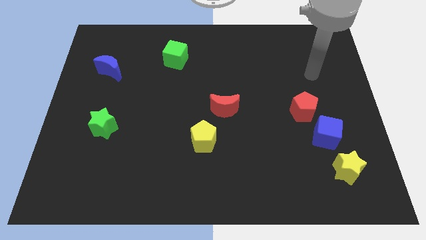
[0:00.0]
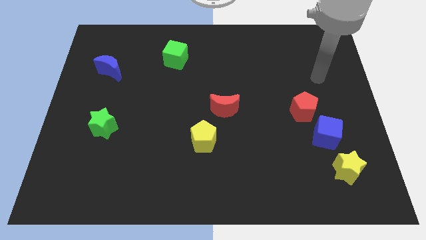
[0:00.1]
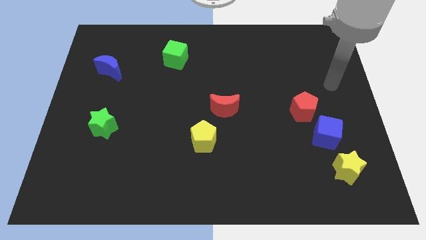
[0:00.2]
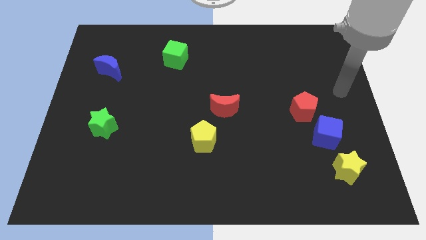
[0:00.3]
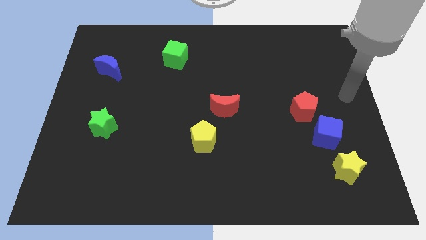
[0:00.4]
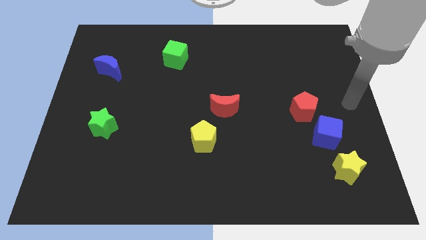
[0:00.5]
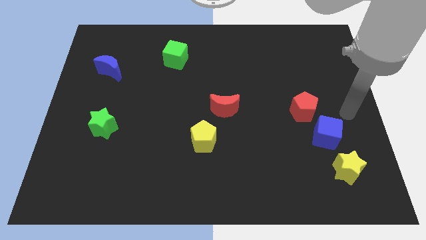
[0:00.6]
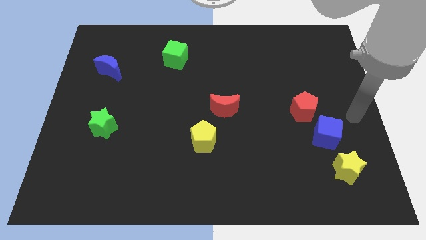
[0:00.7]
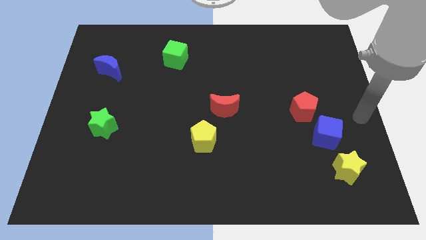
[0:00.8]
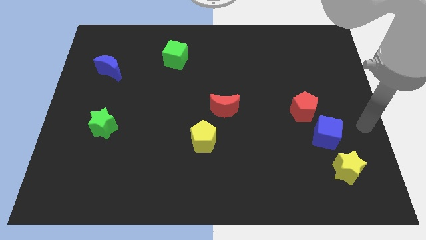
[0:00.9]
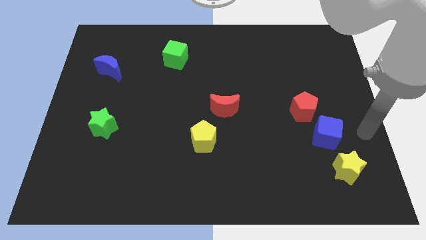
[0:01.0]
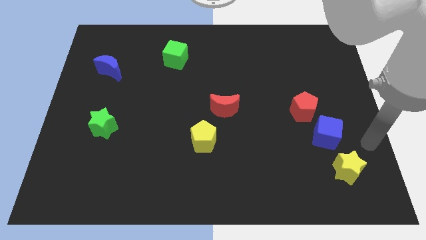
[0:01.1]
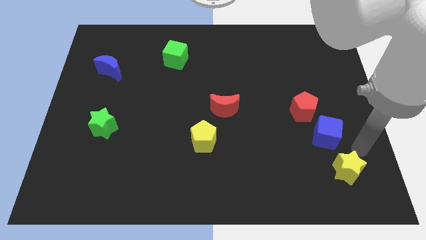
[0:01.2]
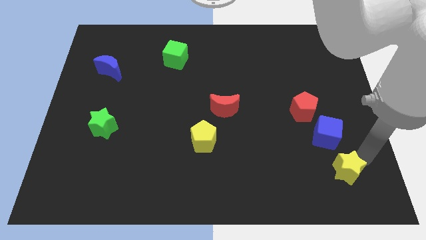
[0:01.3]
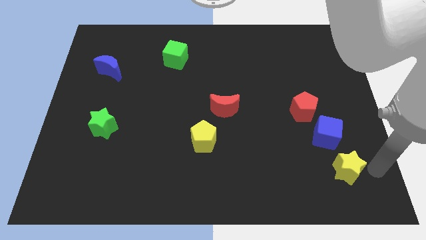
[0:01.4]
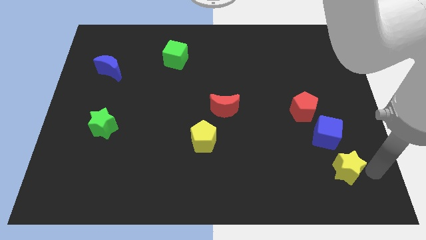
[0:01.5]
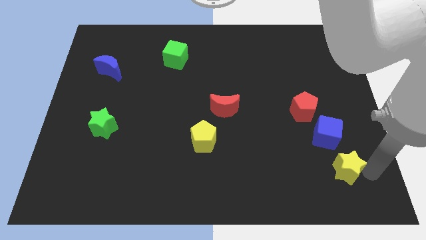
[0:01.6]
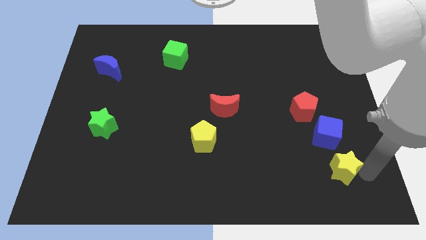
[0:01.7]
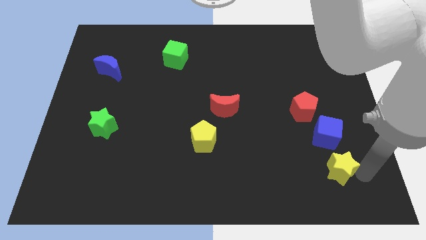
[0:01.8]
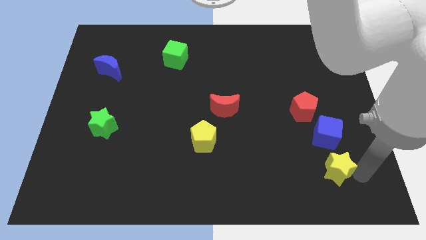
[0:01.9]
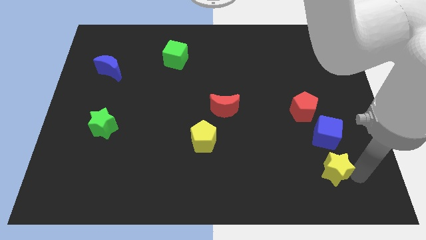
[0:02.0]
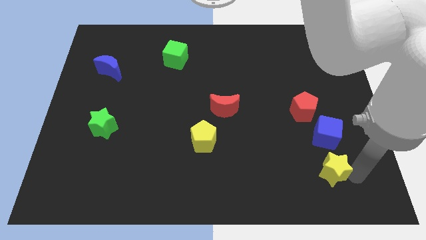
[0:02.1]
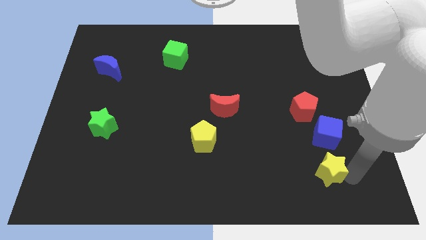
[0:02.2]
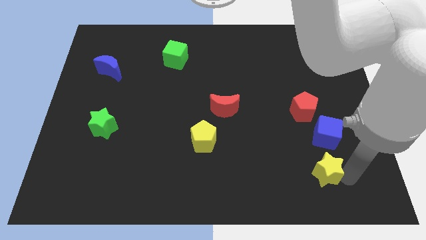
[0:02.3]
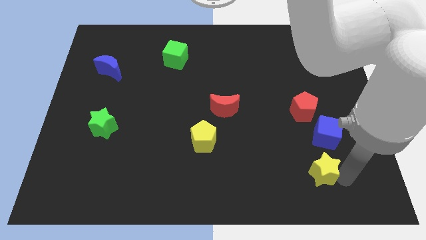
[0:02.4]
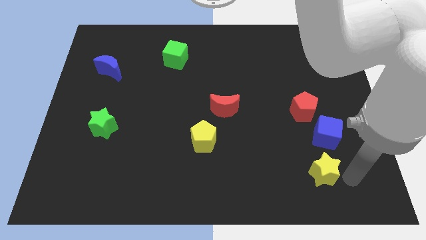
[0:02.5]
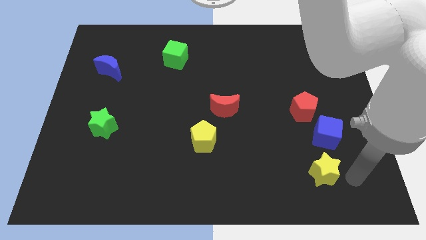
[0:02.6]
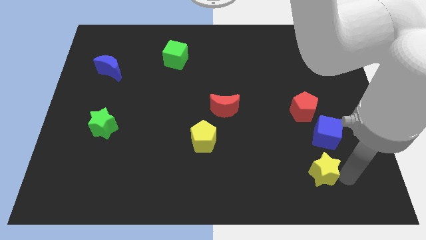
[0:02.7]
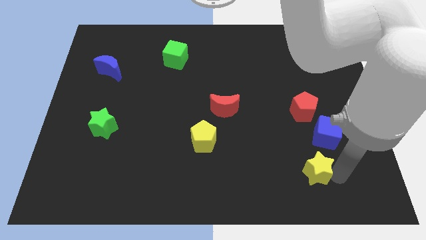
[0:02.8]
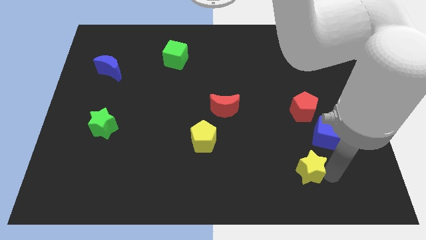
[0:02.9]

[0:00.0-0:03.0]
slide the yellow star somewhat left

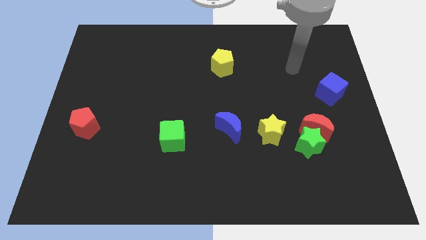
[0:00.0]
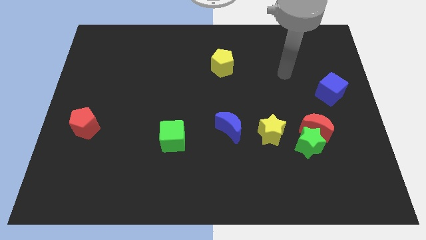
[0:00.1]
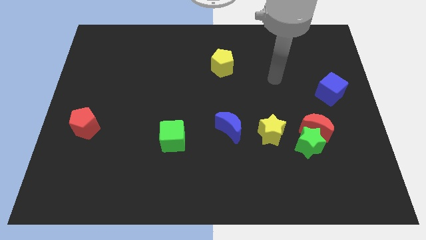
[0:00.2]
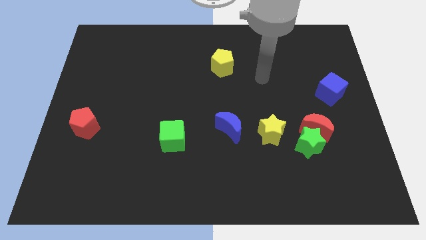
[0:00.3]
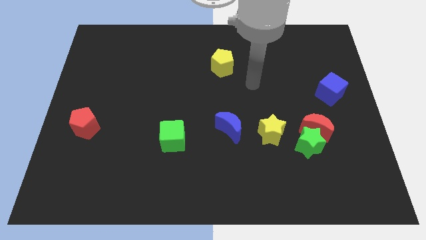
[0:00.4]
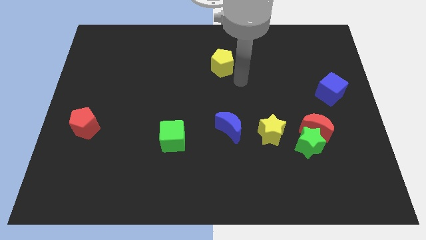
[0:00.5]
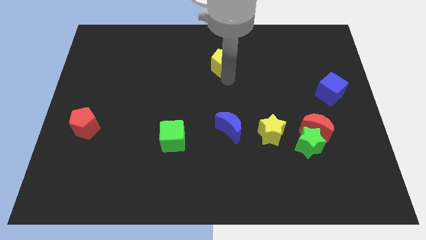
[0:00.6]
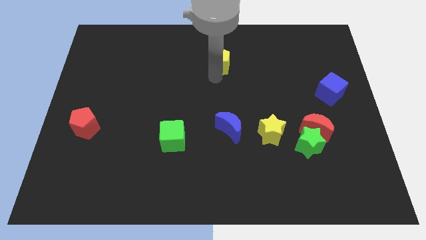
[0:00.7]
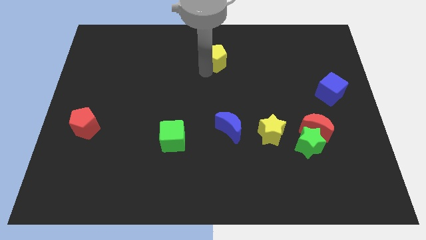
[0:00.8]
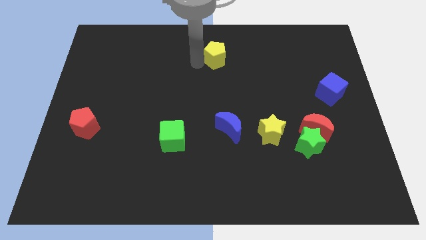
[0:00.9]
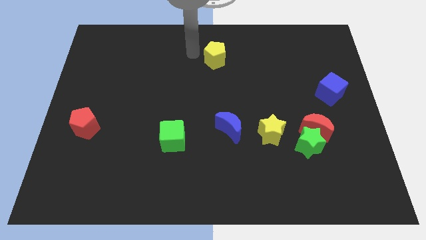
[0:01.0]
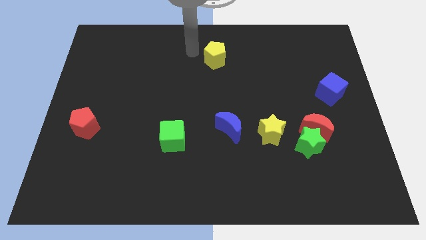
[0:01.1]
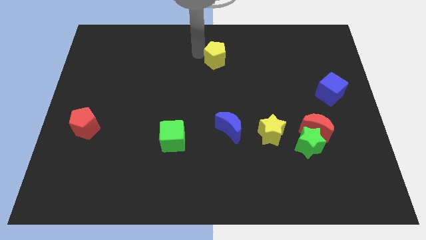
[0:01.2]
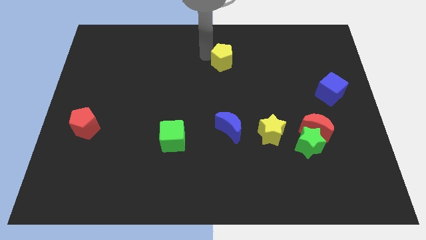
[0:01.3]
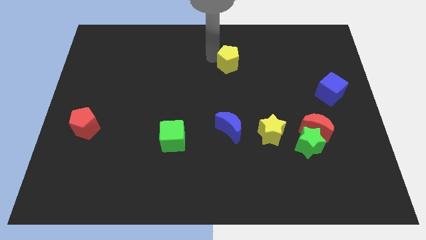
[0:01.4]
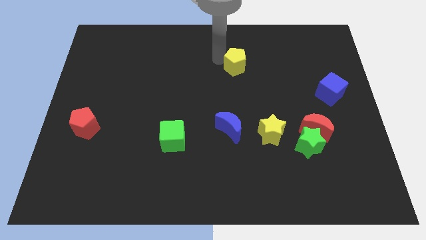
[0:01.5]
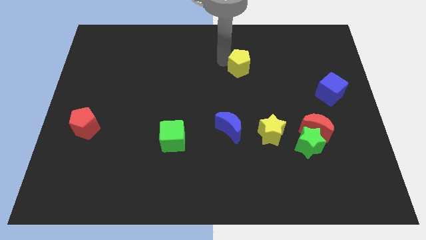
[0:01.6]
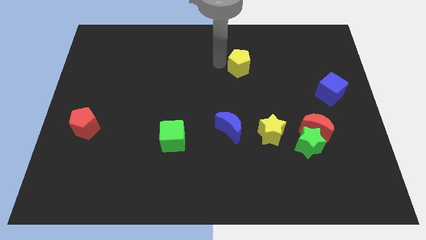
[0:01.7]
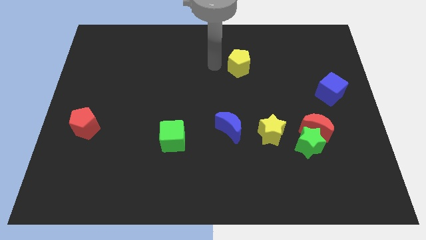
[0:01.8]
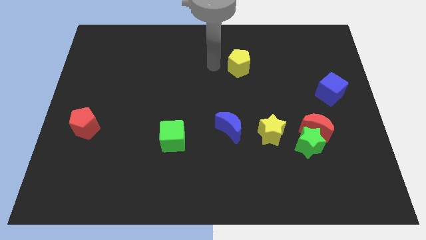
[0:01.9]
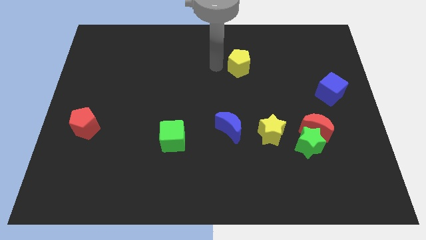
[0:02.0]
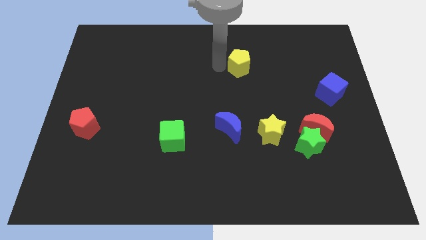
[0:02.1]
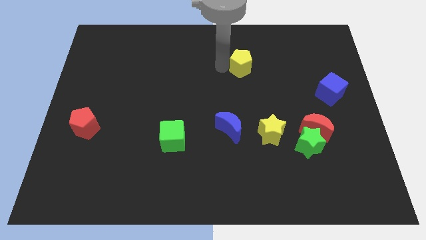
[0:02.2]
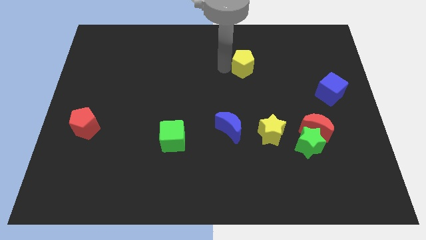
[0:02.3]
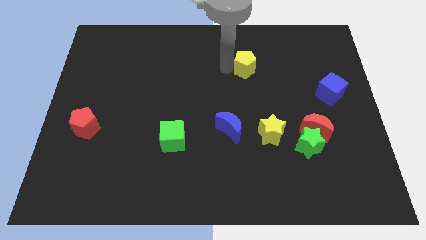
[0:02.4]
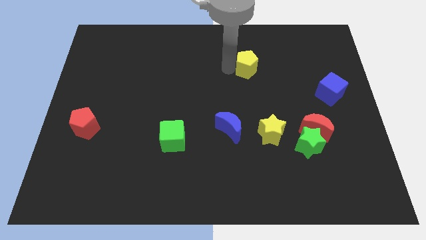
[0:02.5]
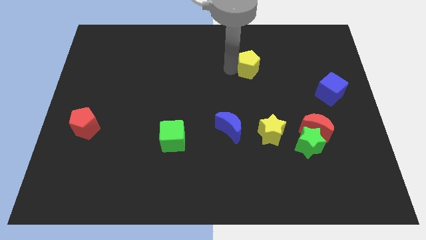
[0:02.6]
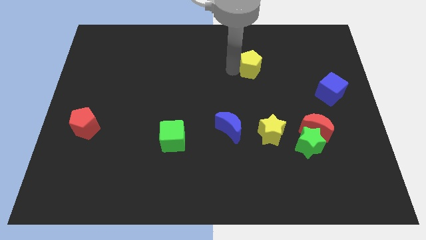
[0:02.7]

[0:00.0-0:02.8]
push the yellow pentagon to the right a little

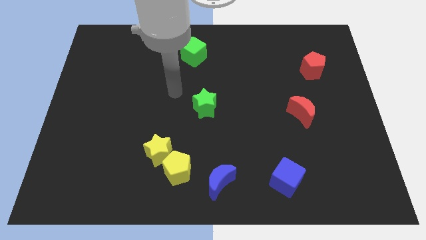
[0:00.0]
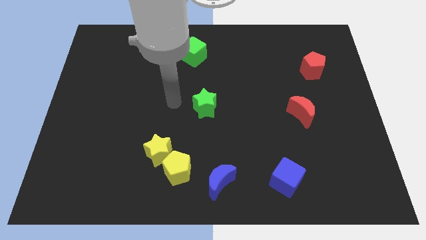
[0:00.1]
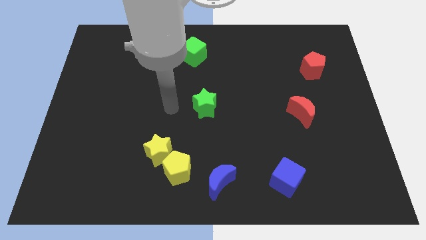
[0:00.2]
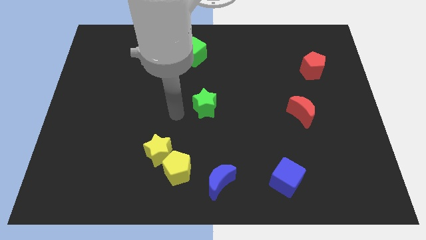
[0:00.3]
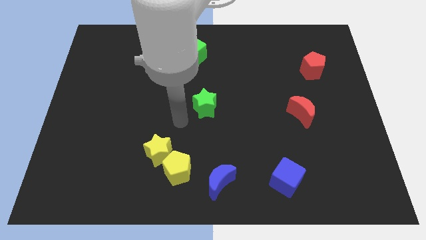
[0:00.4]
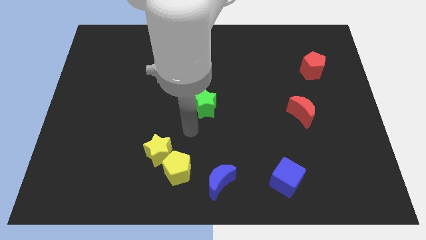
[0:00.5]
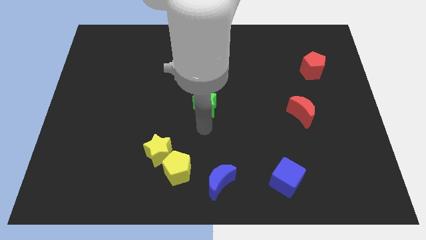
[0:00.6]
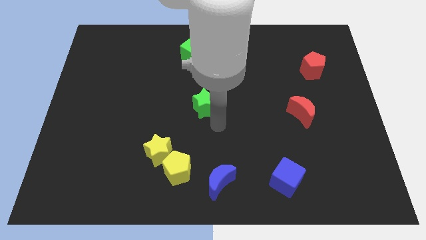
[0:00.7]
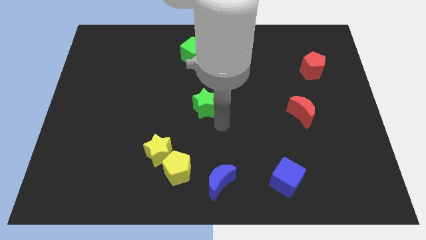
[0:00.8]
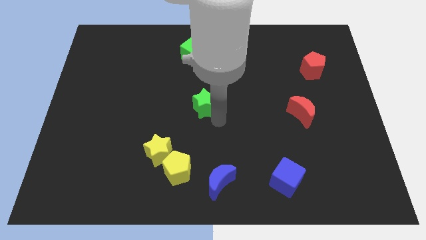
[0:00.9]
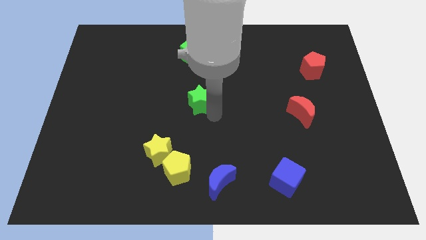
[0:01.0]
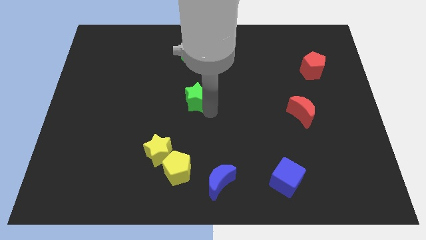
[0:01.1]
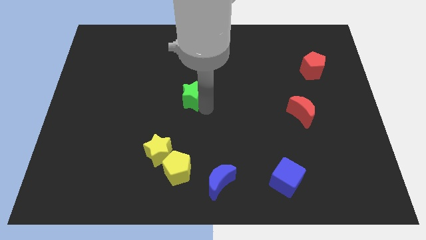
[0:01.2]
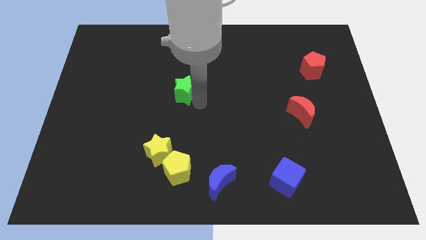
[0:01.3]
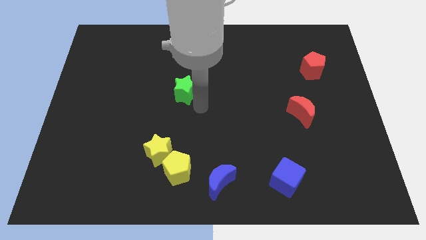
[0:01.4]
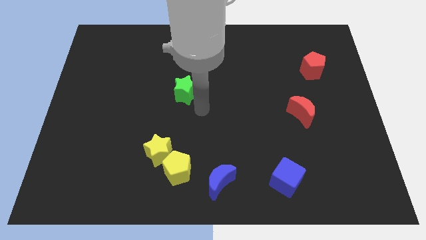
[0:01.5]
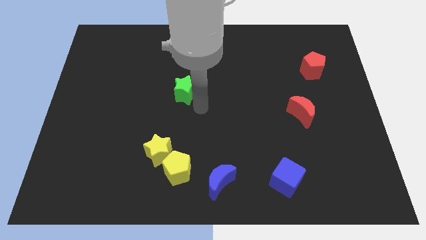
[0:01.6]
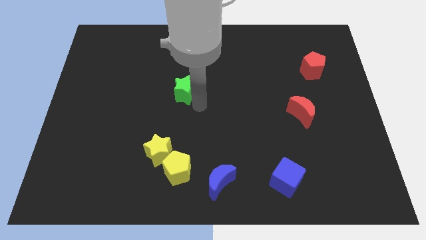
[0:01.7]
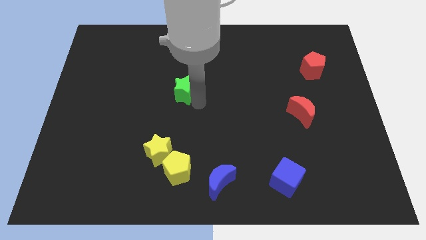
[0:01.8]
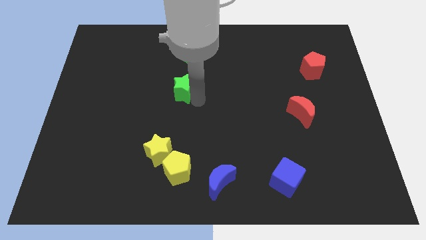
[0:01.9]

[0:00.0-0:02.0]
push the green star up and left diagonally a little bit

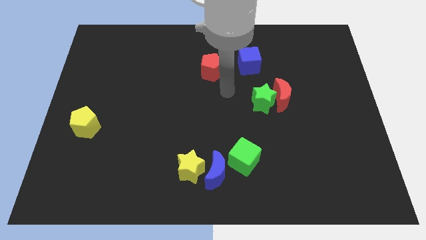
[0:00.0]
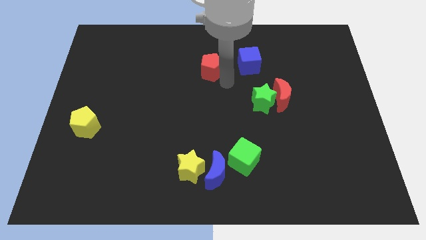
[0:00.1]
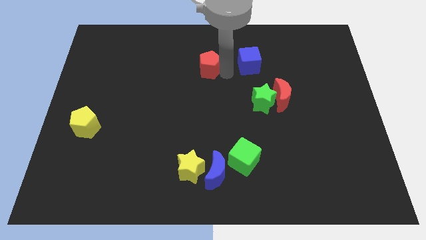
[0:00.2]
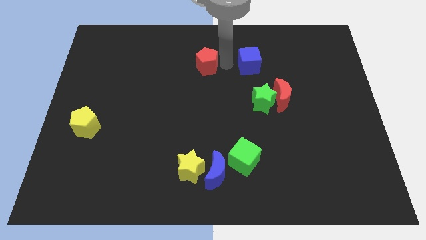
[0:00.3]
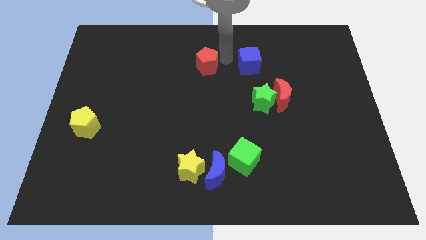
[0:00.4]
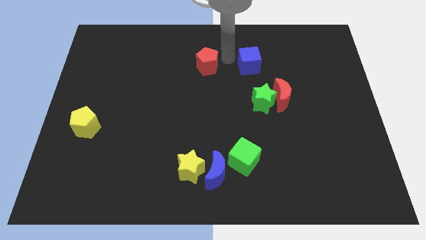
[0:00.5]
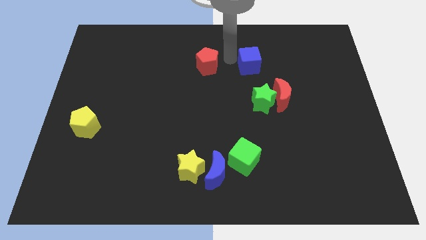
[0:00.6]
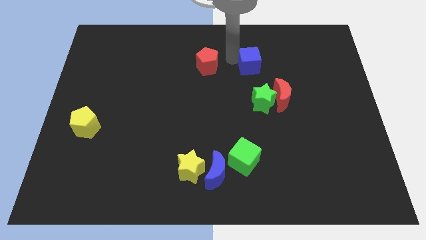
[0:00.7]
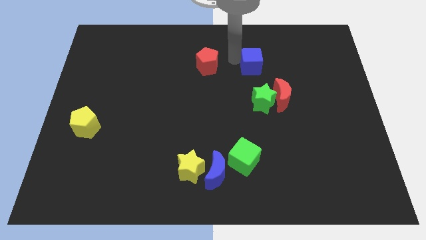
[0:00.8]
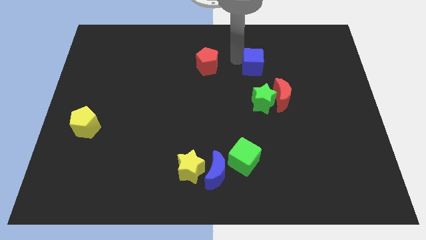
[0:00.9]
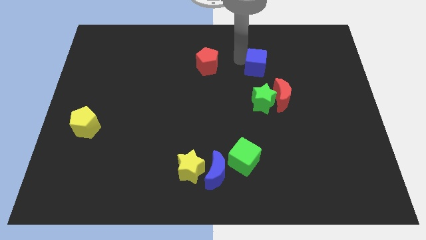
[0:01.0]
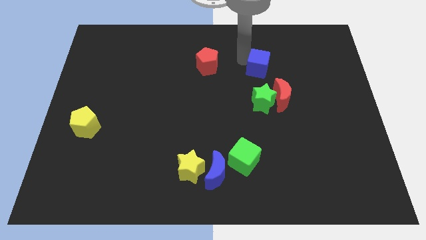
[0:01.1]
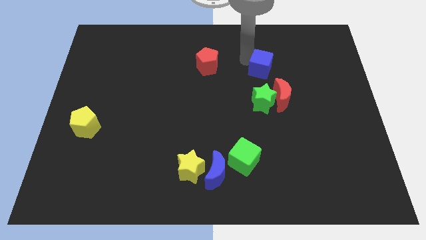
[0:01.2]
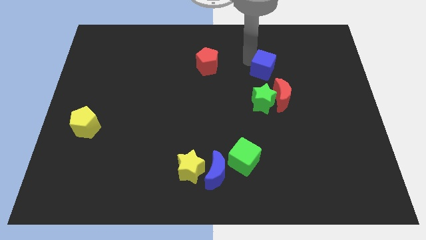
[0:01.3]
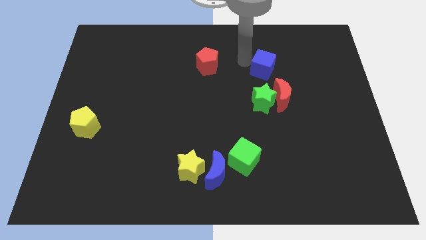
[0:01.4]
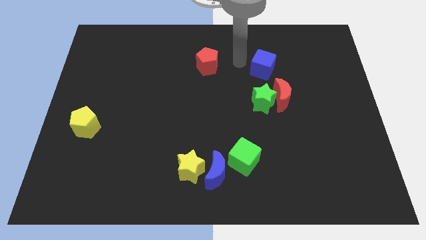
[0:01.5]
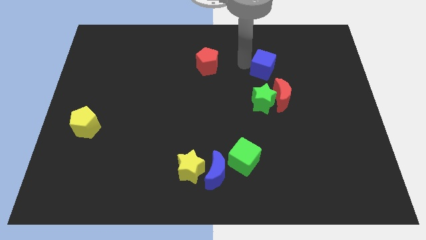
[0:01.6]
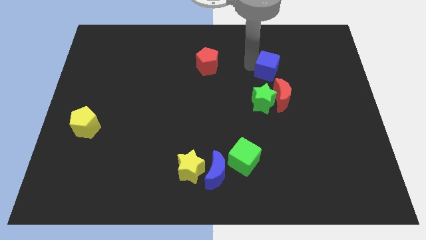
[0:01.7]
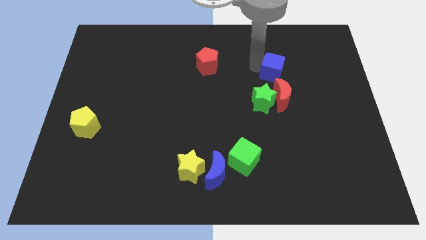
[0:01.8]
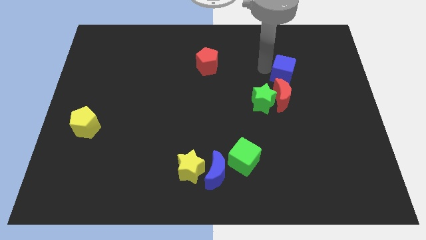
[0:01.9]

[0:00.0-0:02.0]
slide the blue cube diagonally down and to the right a little bit
